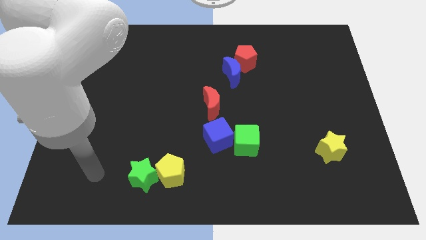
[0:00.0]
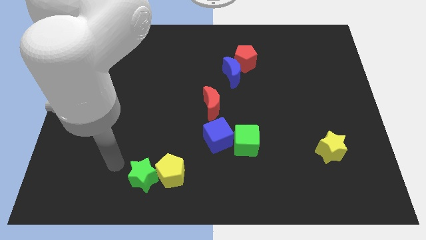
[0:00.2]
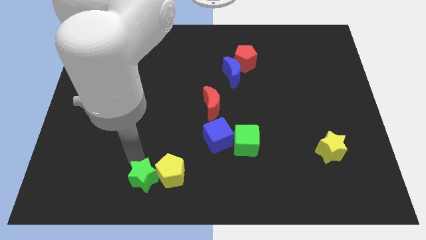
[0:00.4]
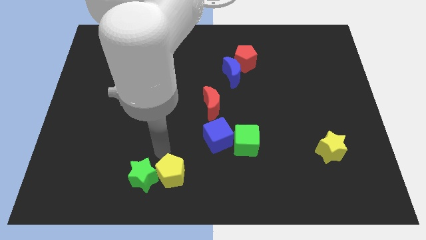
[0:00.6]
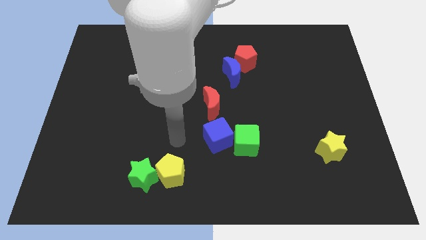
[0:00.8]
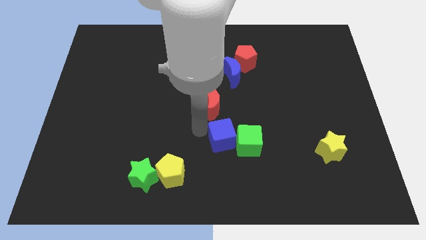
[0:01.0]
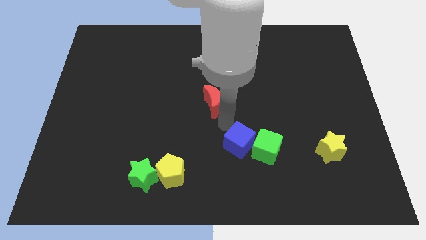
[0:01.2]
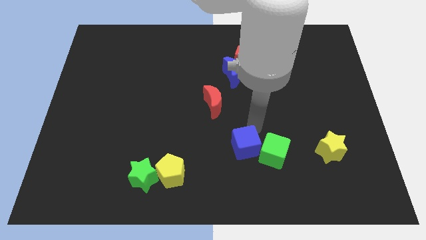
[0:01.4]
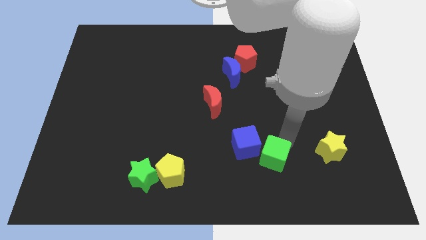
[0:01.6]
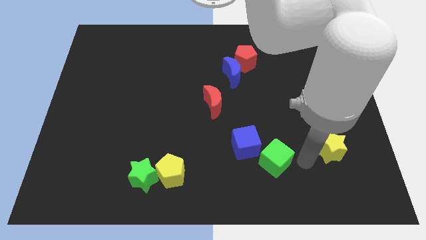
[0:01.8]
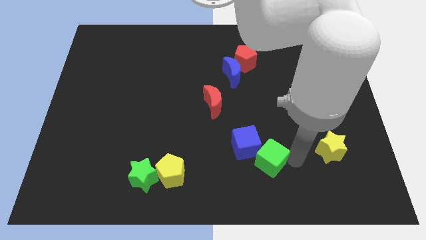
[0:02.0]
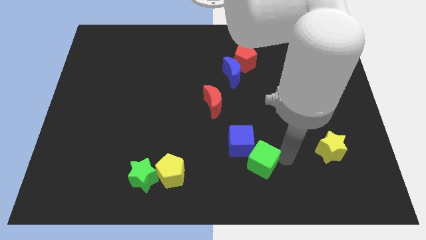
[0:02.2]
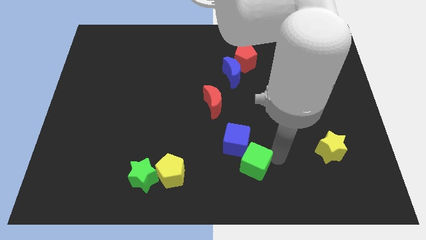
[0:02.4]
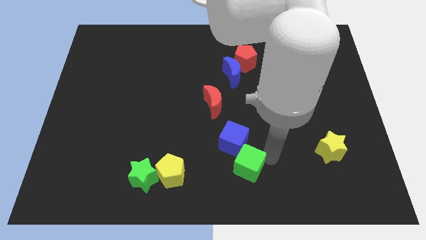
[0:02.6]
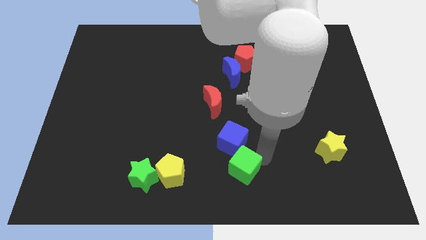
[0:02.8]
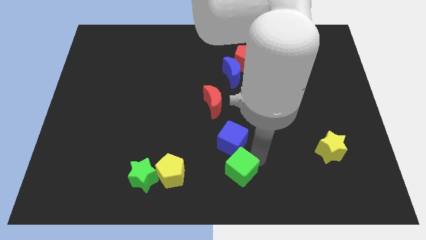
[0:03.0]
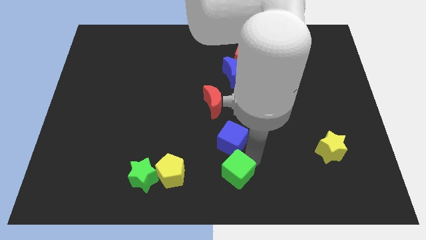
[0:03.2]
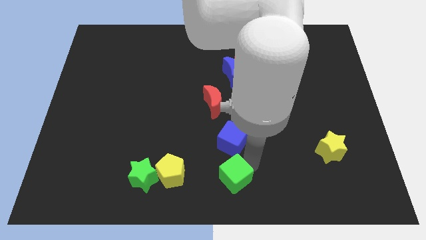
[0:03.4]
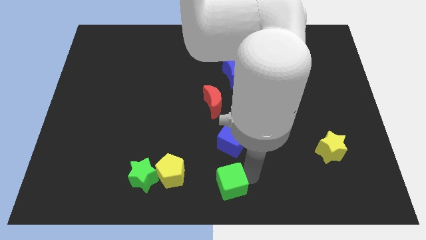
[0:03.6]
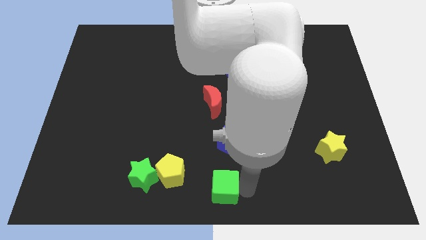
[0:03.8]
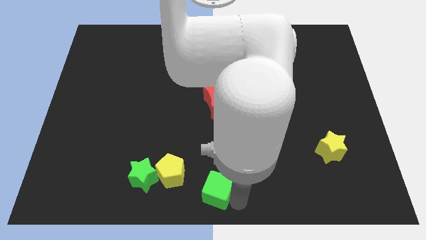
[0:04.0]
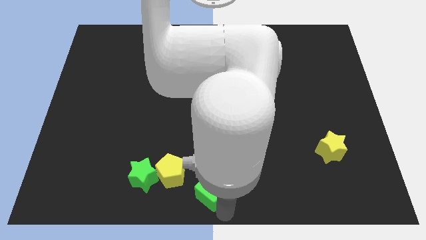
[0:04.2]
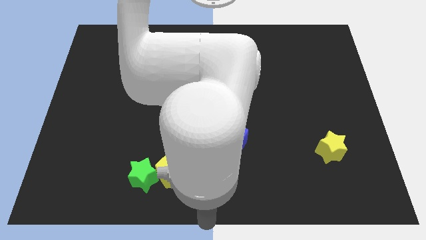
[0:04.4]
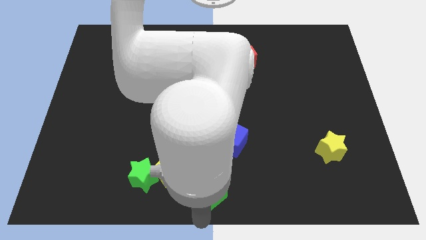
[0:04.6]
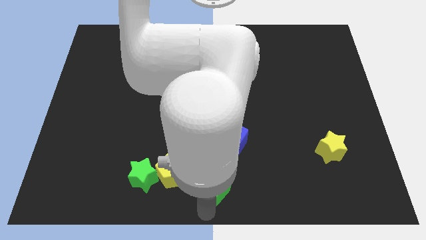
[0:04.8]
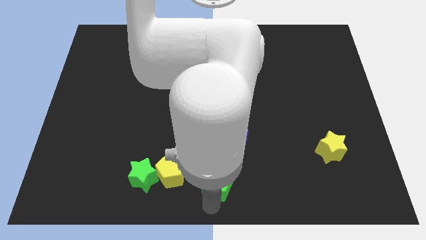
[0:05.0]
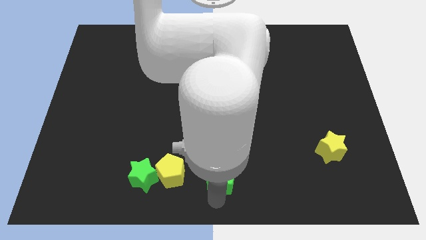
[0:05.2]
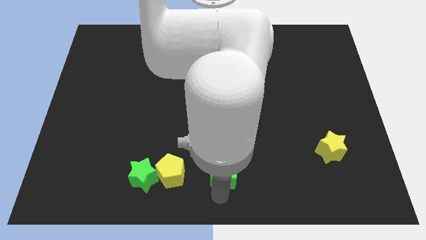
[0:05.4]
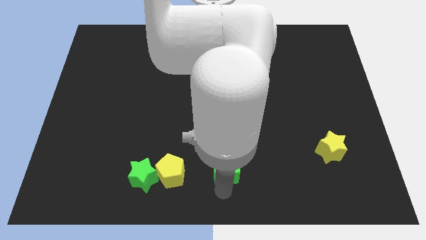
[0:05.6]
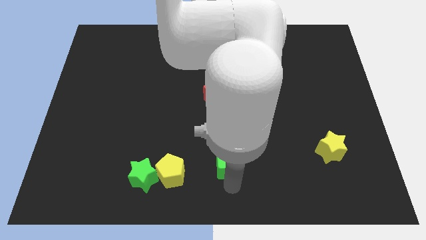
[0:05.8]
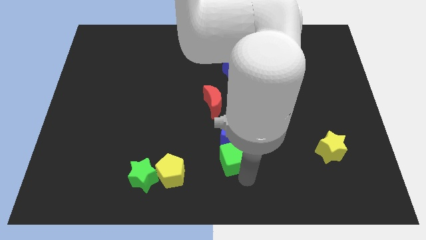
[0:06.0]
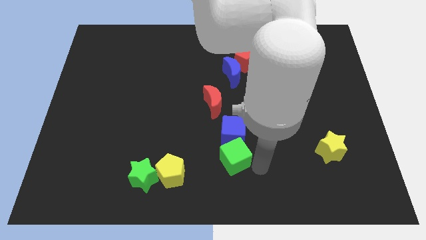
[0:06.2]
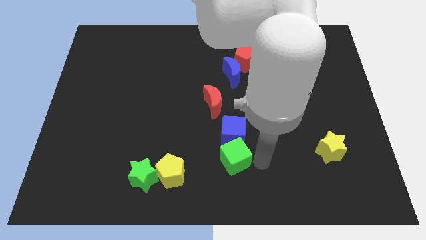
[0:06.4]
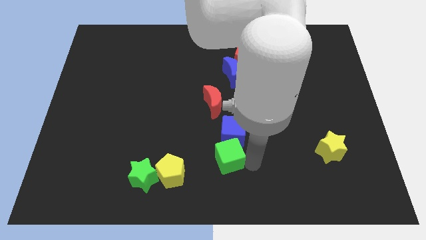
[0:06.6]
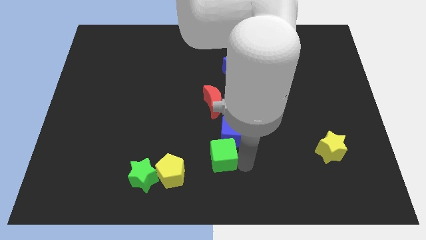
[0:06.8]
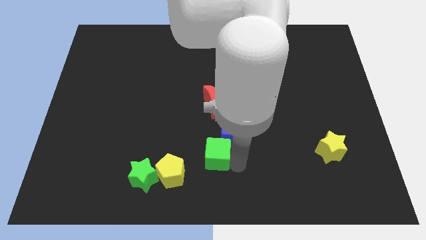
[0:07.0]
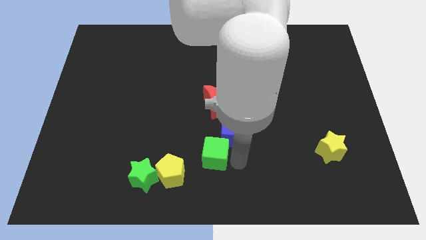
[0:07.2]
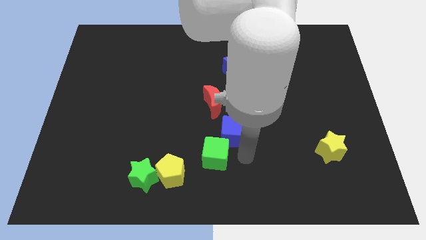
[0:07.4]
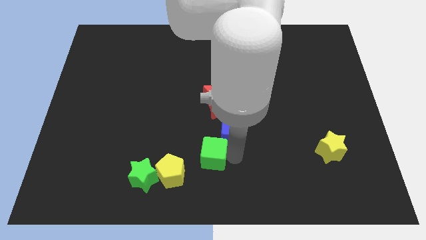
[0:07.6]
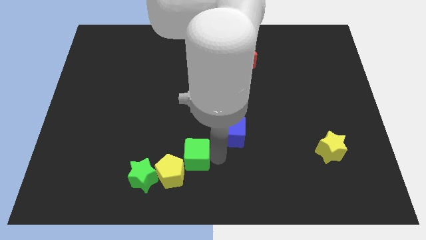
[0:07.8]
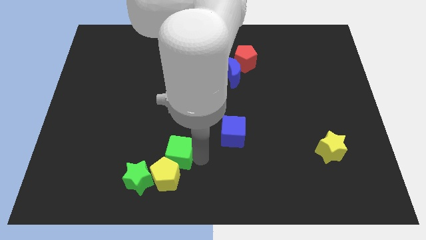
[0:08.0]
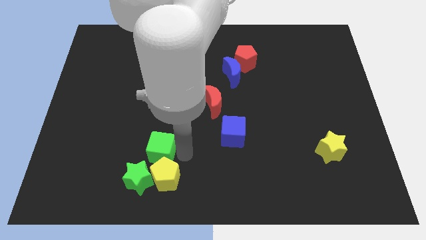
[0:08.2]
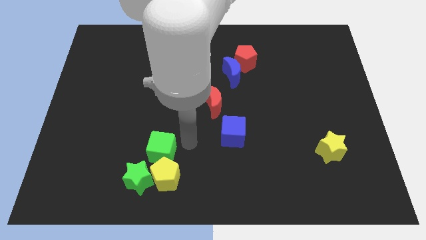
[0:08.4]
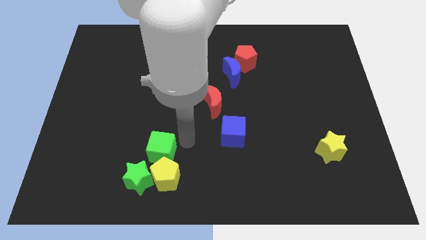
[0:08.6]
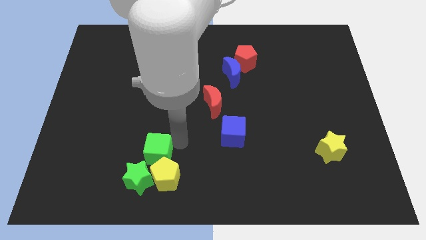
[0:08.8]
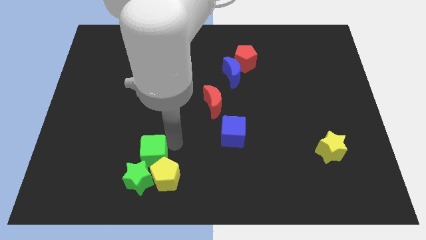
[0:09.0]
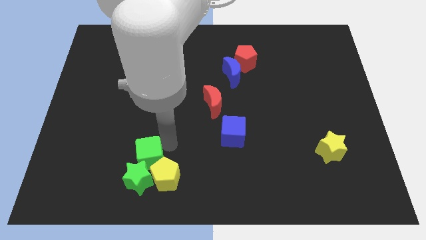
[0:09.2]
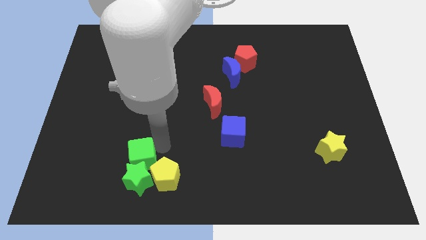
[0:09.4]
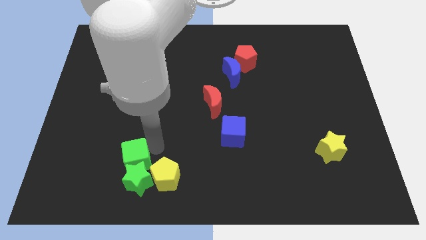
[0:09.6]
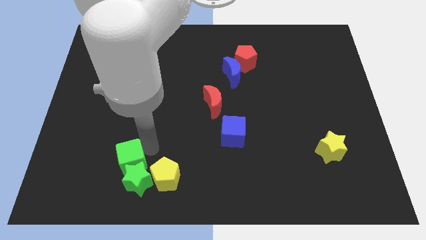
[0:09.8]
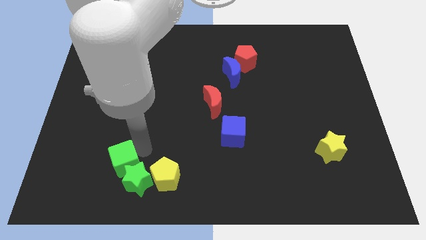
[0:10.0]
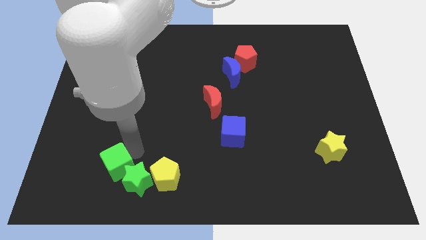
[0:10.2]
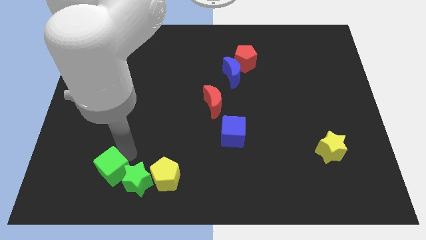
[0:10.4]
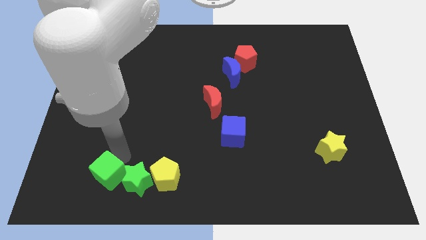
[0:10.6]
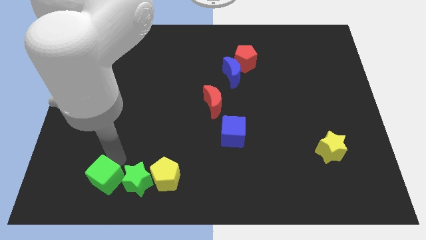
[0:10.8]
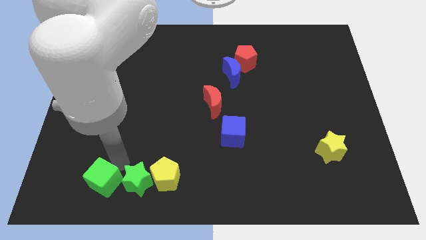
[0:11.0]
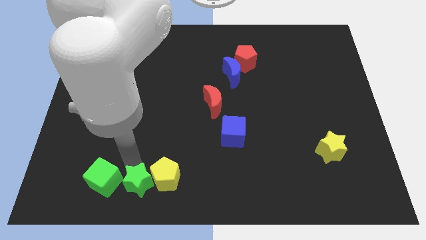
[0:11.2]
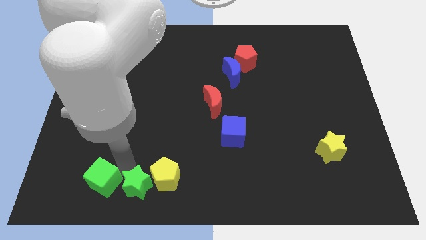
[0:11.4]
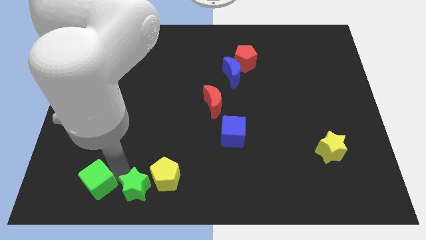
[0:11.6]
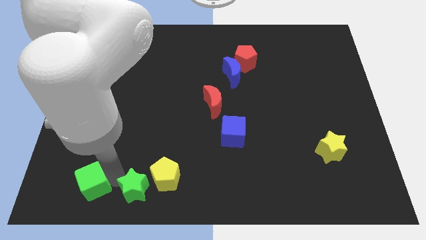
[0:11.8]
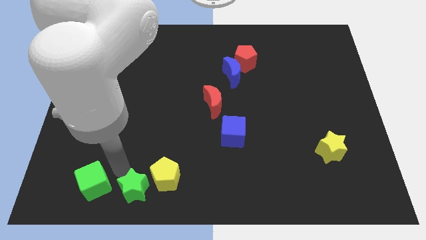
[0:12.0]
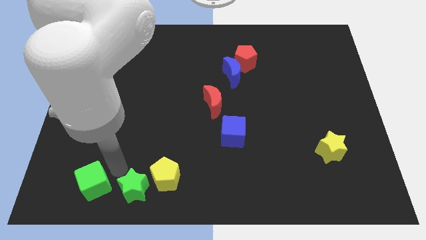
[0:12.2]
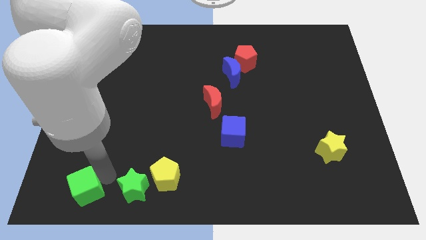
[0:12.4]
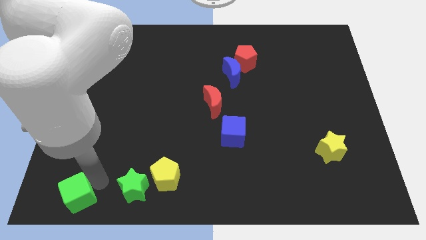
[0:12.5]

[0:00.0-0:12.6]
put the green cube to the bottom left corner
